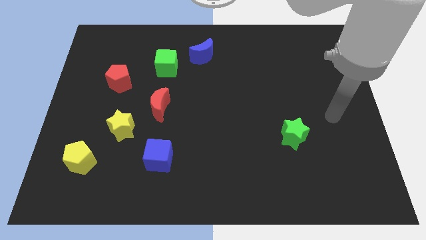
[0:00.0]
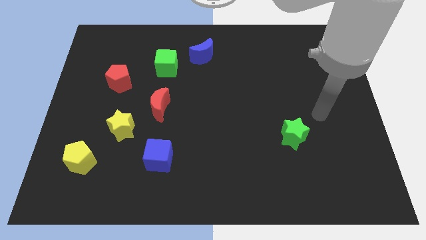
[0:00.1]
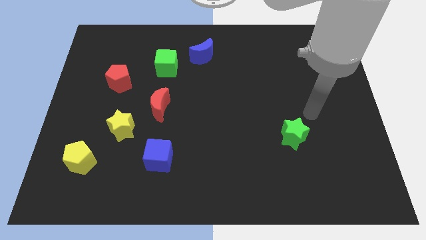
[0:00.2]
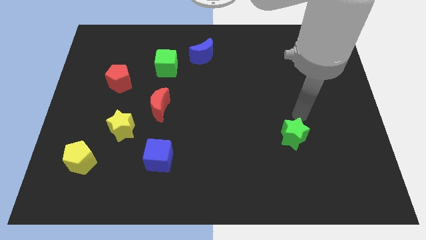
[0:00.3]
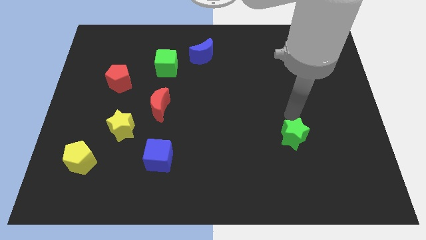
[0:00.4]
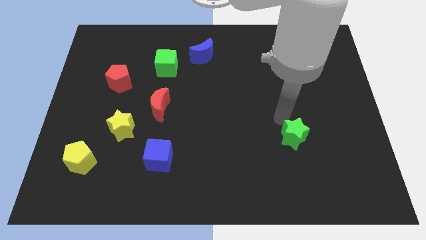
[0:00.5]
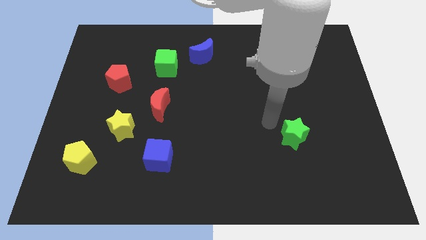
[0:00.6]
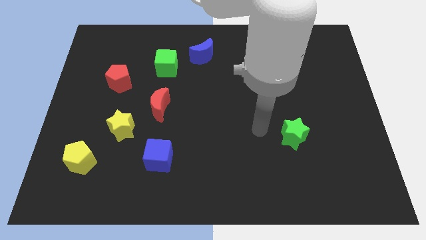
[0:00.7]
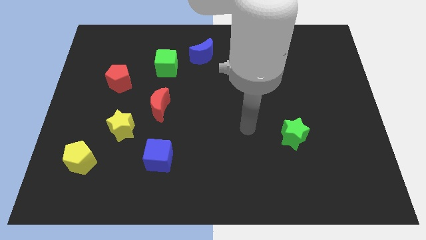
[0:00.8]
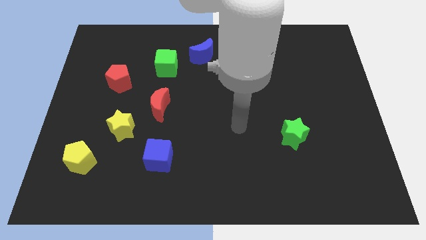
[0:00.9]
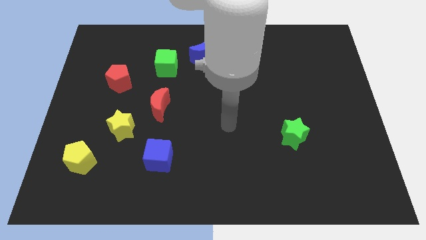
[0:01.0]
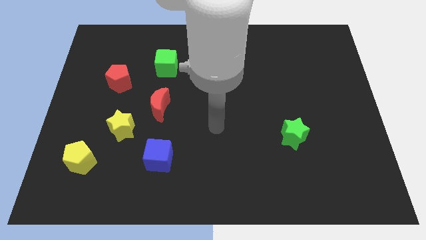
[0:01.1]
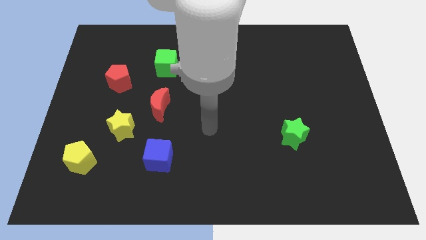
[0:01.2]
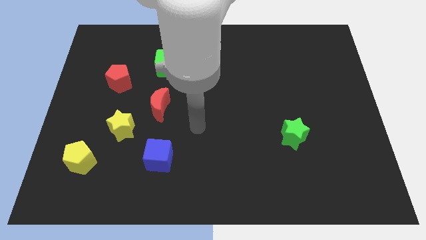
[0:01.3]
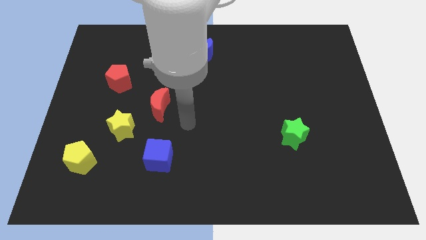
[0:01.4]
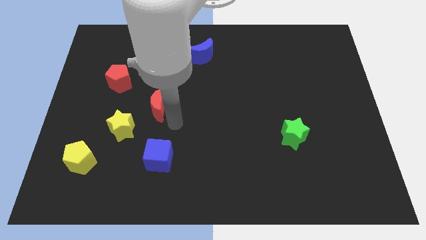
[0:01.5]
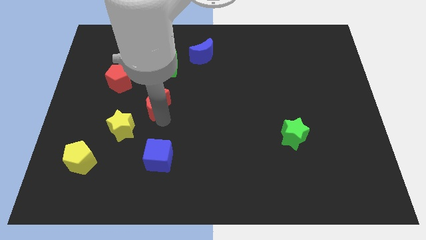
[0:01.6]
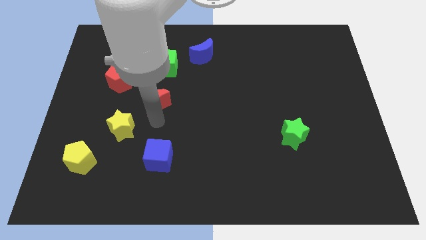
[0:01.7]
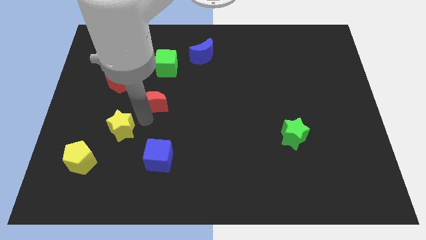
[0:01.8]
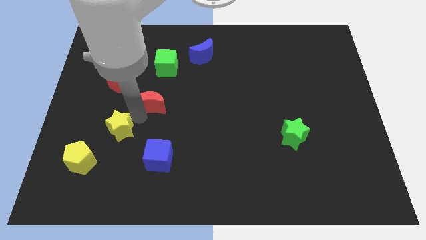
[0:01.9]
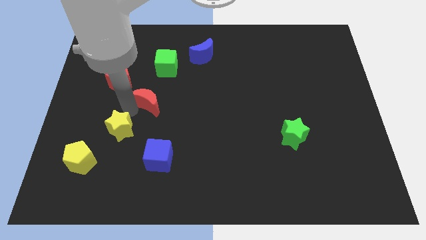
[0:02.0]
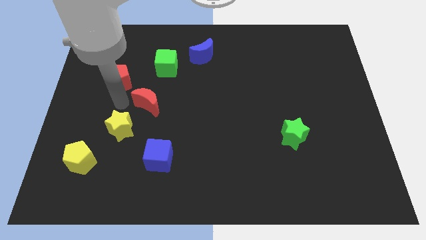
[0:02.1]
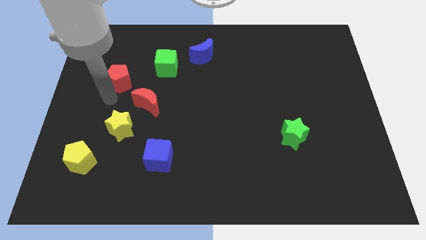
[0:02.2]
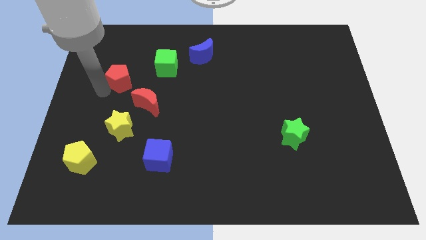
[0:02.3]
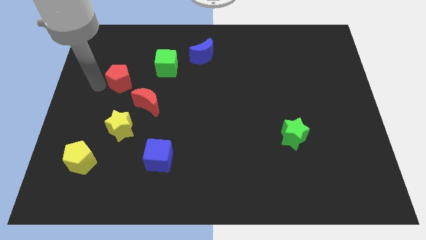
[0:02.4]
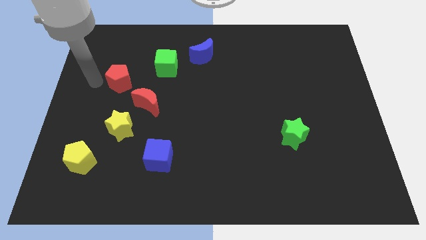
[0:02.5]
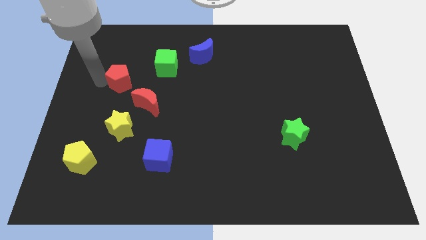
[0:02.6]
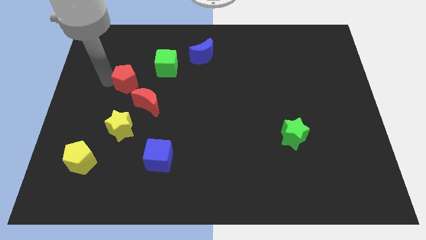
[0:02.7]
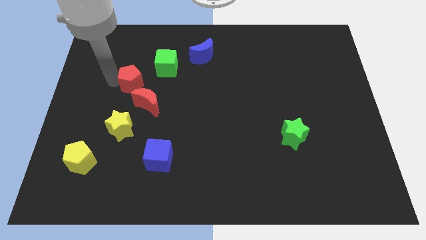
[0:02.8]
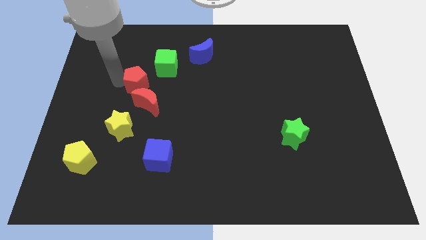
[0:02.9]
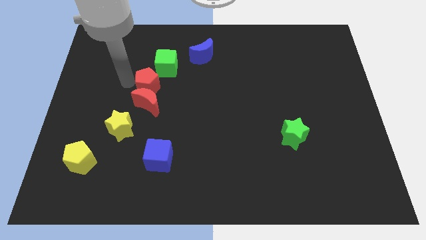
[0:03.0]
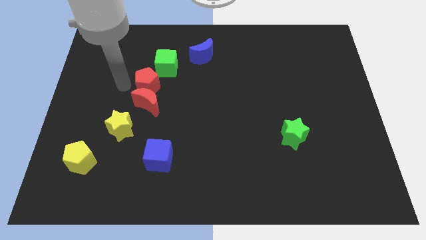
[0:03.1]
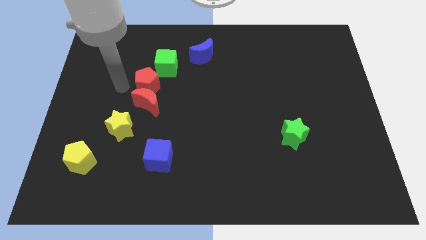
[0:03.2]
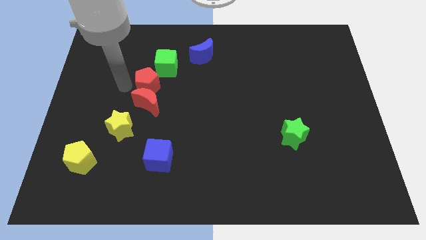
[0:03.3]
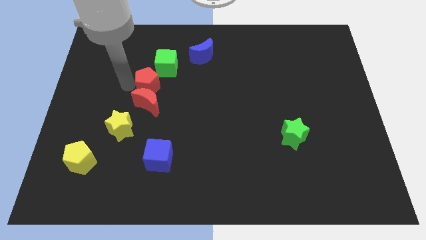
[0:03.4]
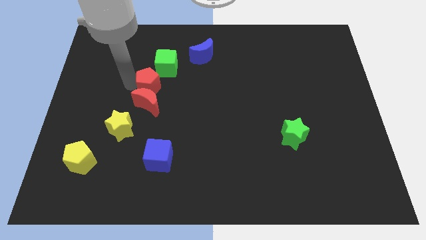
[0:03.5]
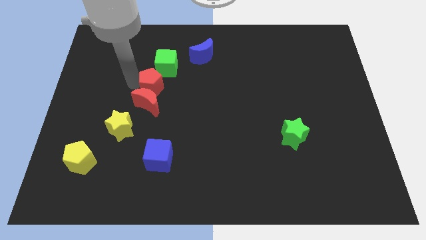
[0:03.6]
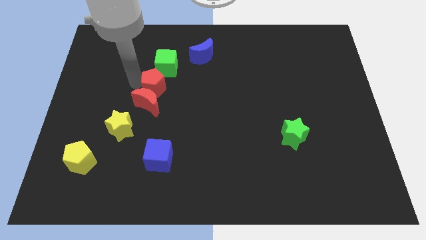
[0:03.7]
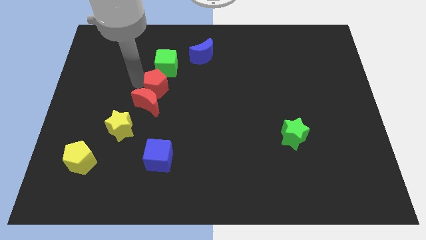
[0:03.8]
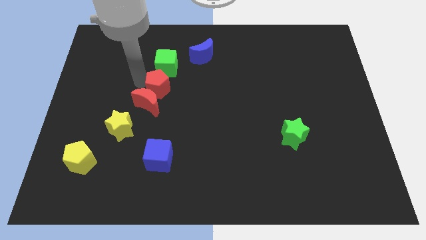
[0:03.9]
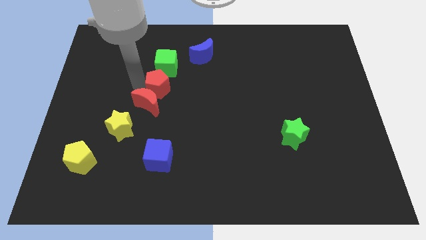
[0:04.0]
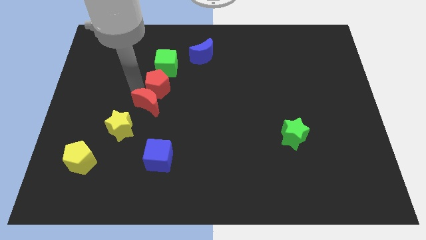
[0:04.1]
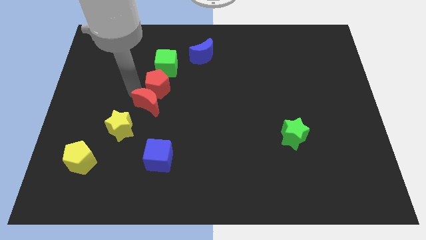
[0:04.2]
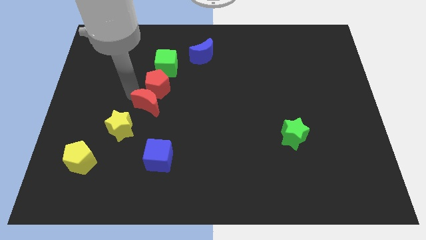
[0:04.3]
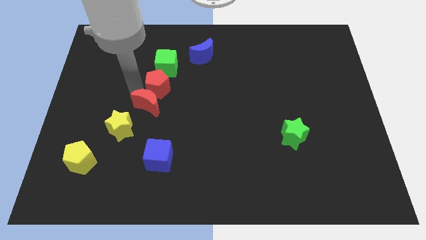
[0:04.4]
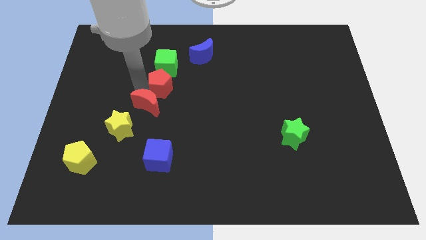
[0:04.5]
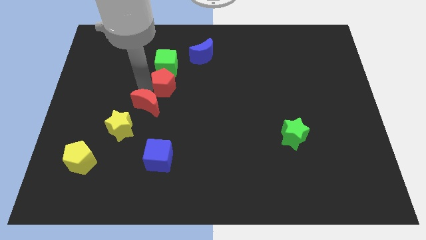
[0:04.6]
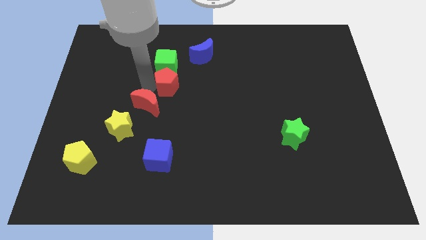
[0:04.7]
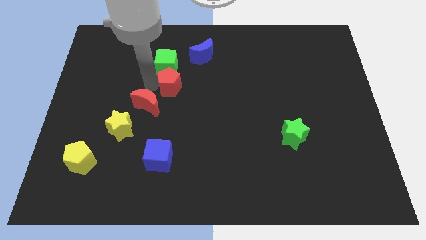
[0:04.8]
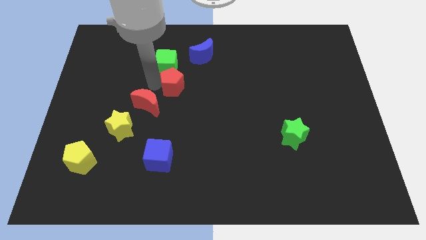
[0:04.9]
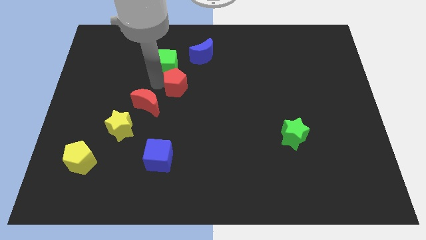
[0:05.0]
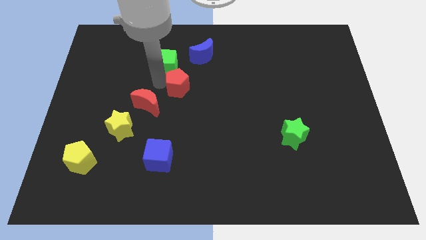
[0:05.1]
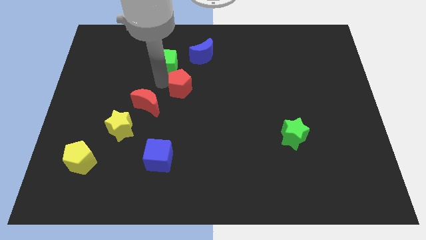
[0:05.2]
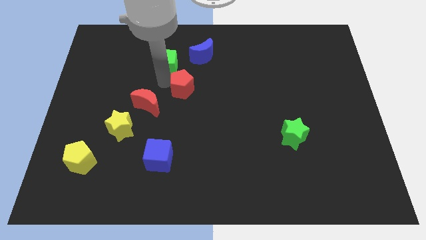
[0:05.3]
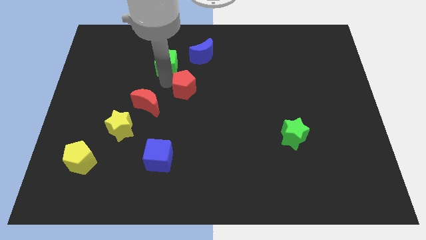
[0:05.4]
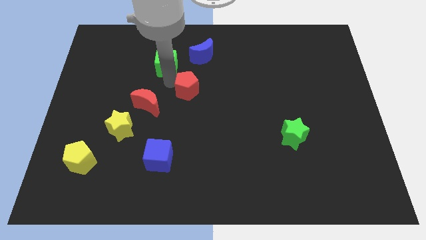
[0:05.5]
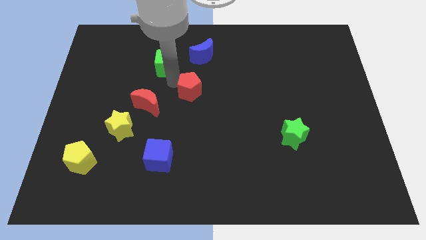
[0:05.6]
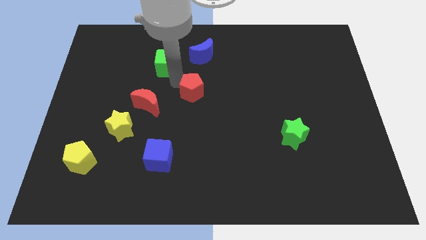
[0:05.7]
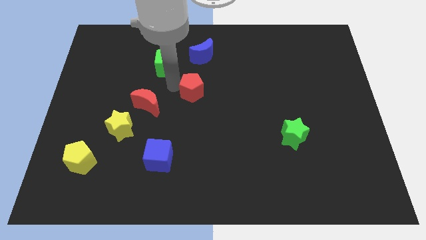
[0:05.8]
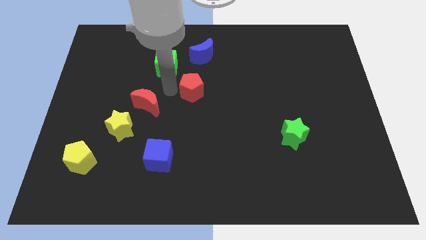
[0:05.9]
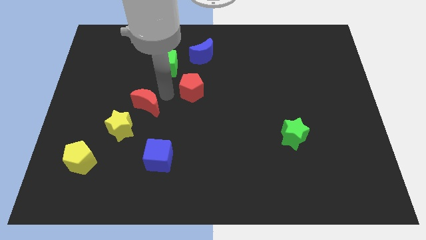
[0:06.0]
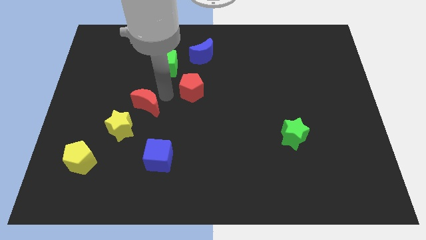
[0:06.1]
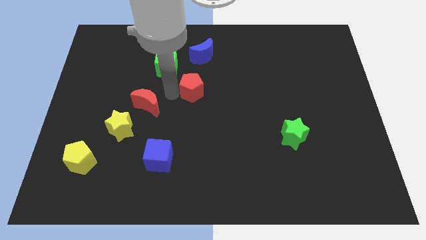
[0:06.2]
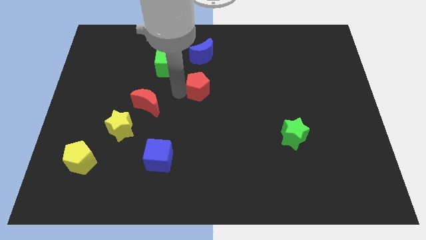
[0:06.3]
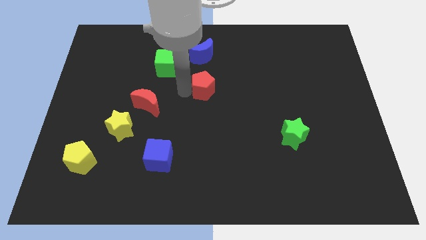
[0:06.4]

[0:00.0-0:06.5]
slide the red pentagon to the right

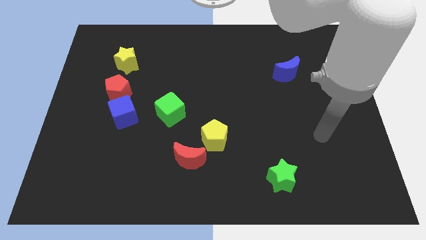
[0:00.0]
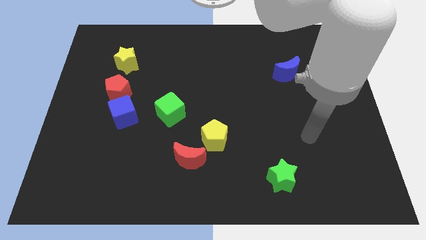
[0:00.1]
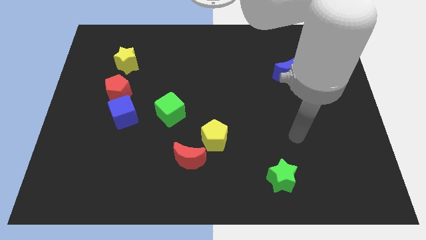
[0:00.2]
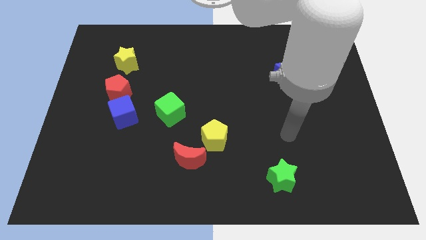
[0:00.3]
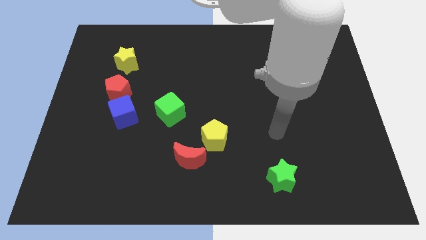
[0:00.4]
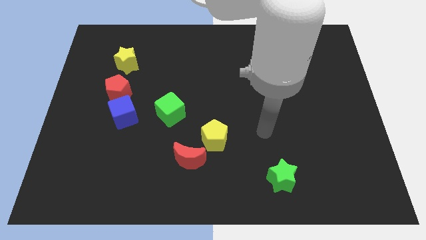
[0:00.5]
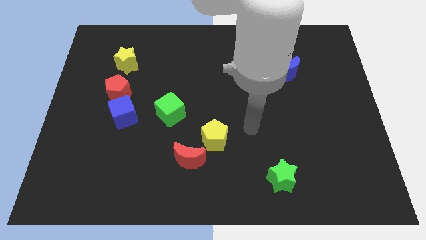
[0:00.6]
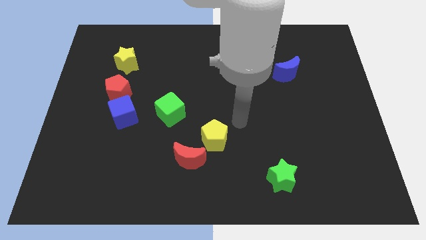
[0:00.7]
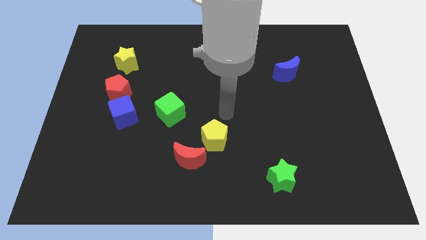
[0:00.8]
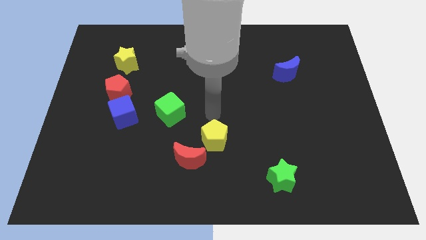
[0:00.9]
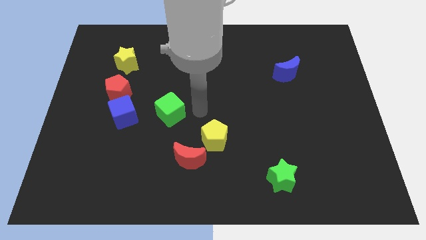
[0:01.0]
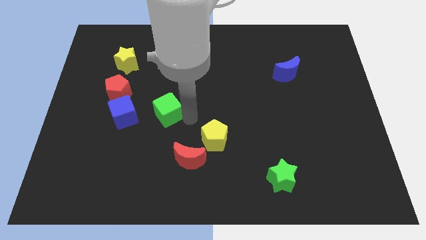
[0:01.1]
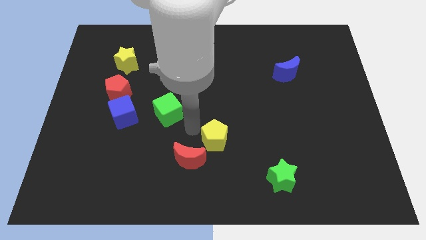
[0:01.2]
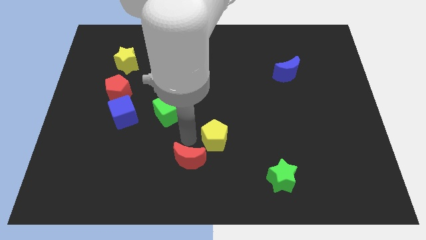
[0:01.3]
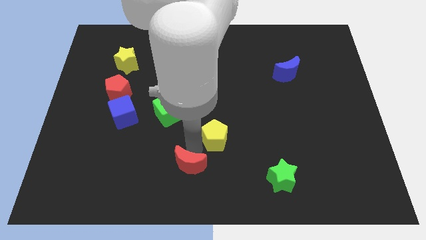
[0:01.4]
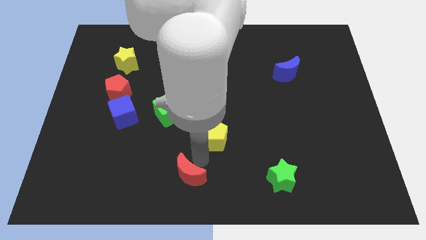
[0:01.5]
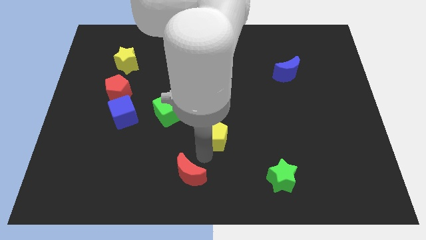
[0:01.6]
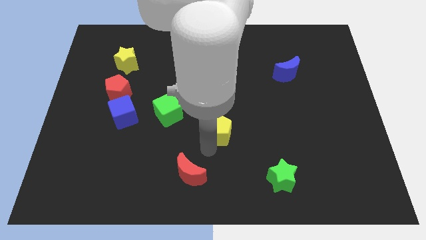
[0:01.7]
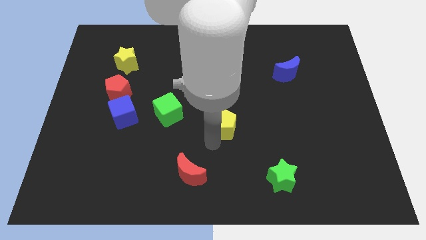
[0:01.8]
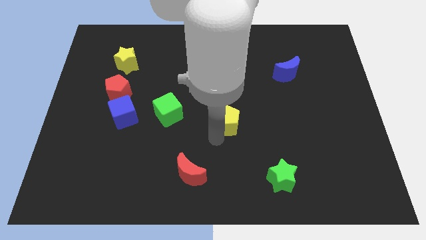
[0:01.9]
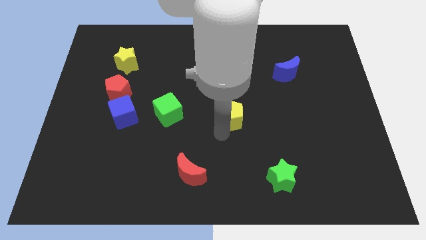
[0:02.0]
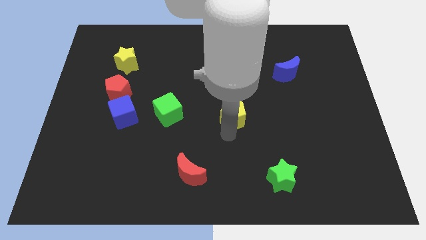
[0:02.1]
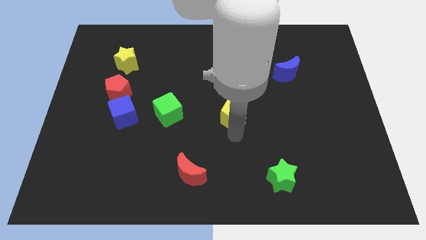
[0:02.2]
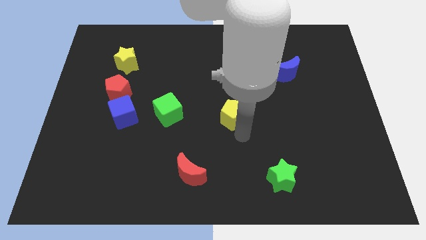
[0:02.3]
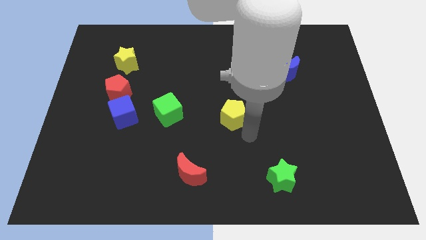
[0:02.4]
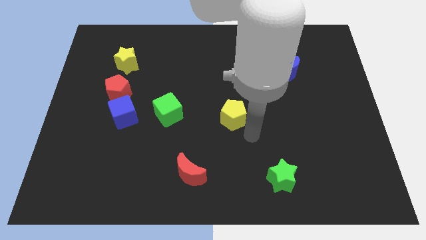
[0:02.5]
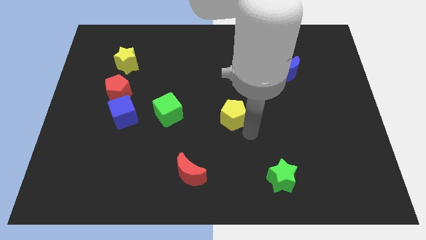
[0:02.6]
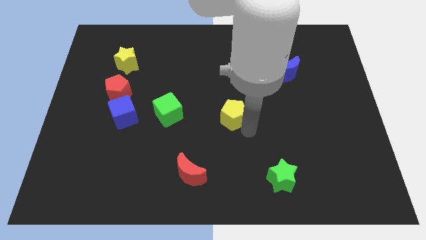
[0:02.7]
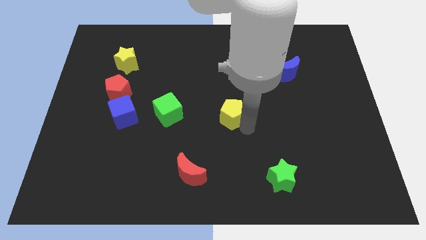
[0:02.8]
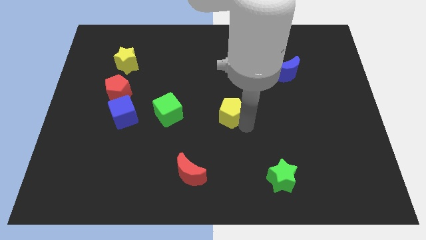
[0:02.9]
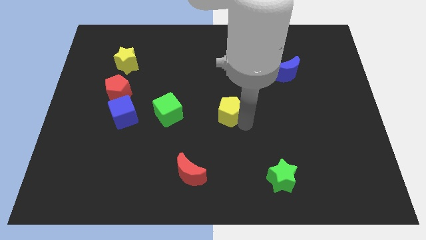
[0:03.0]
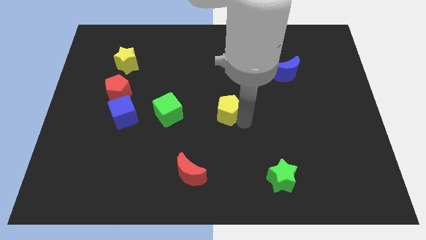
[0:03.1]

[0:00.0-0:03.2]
push the yellow pentagon a bit up
